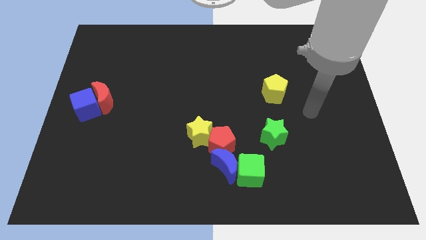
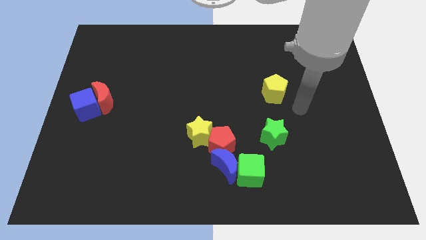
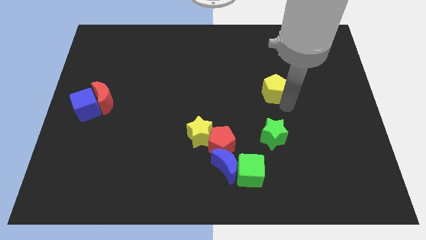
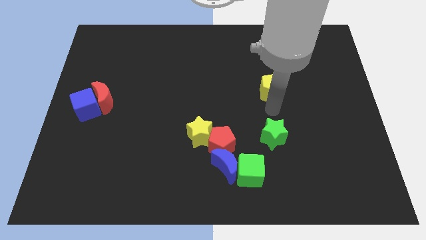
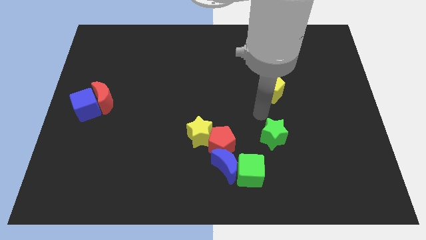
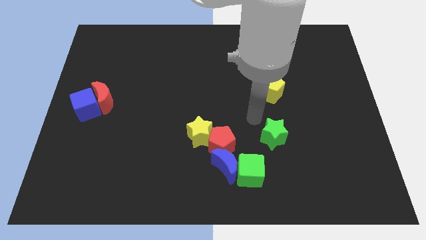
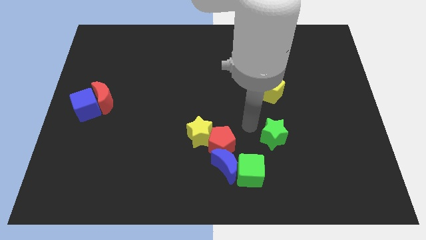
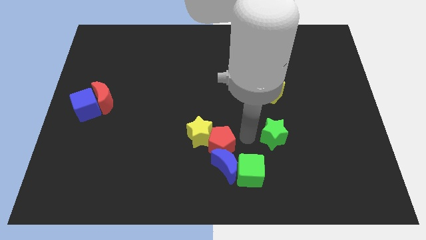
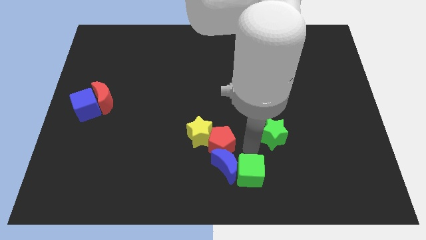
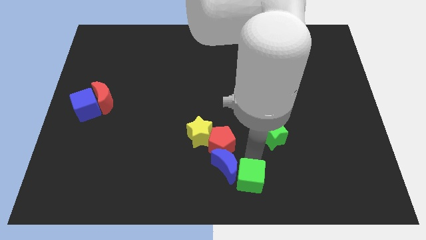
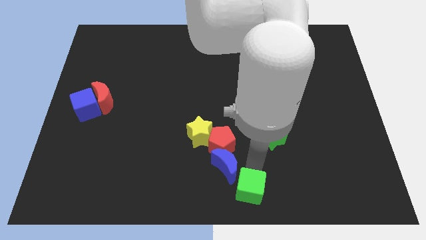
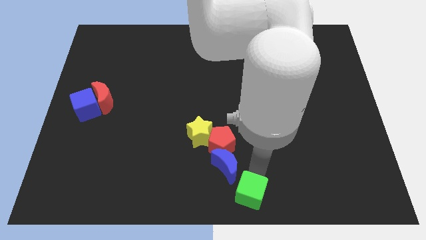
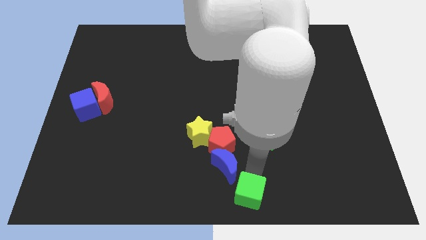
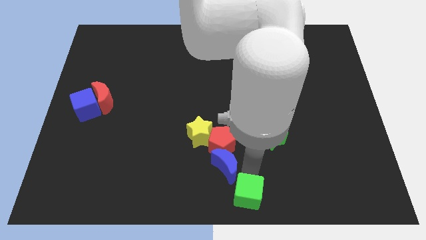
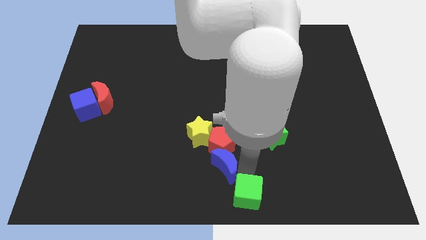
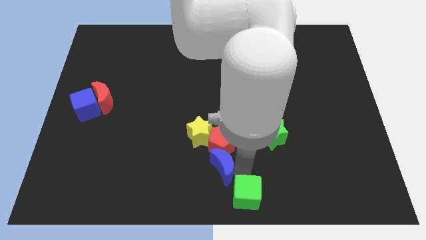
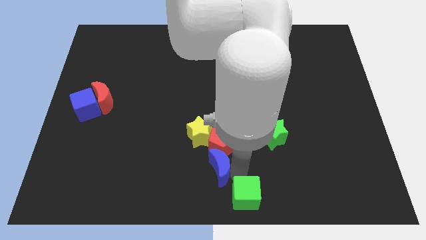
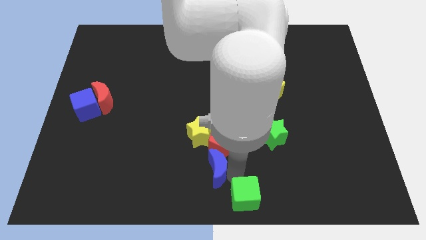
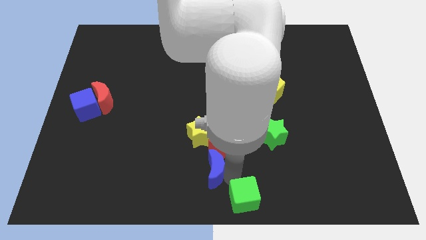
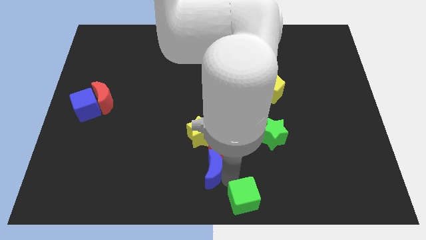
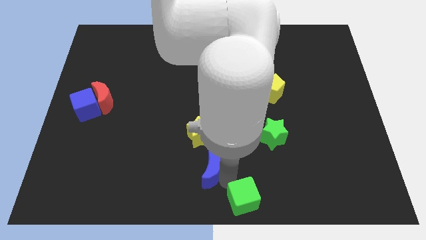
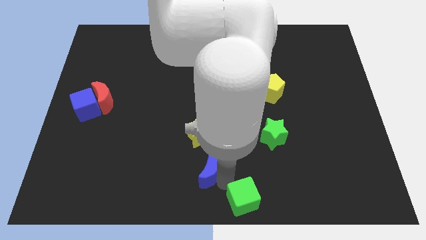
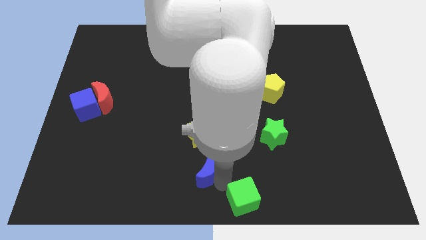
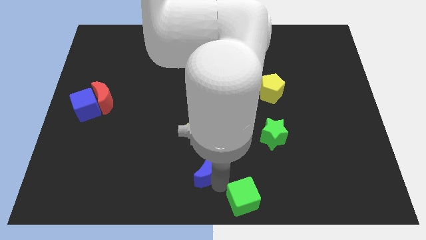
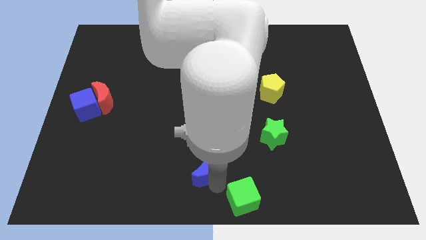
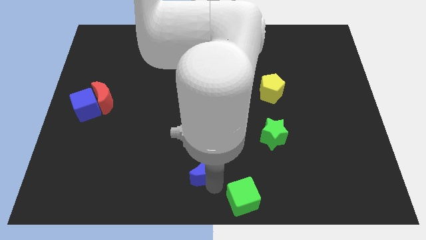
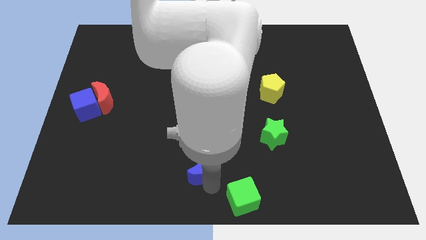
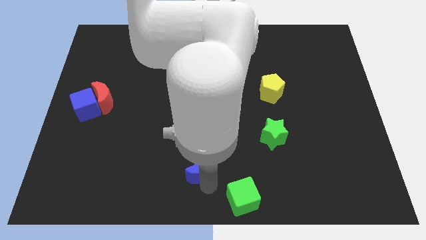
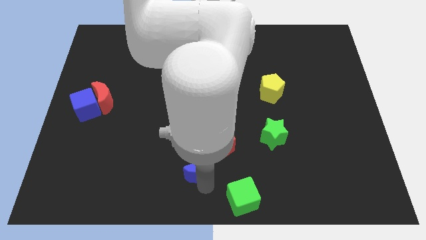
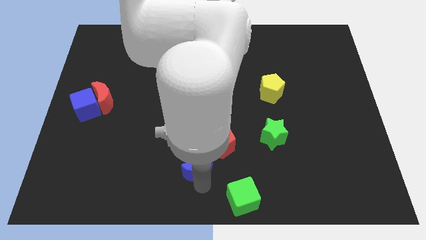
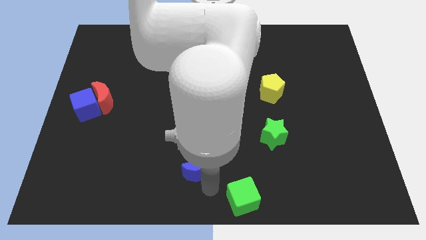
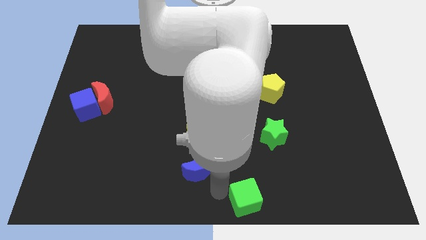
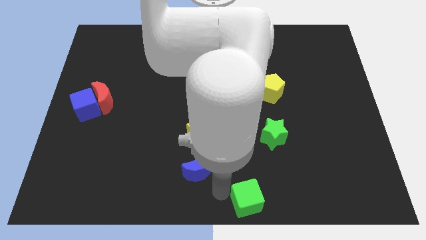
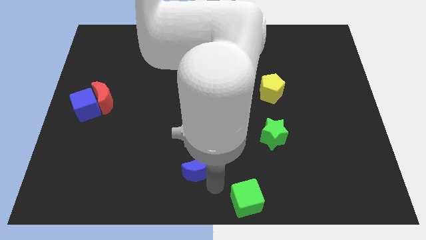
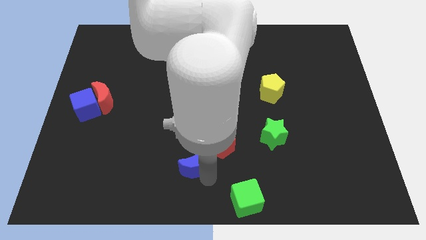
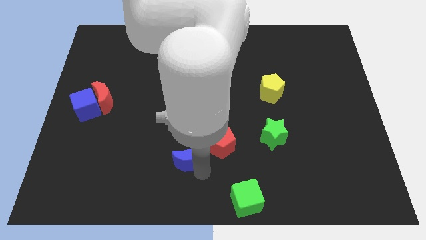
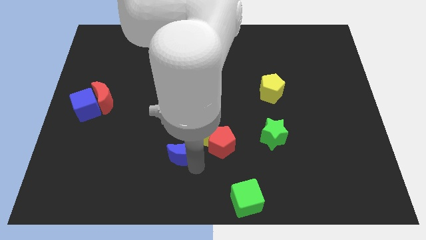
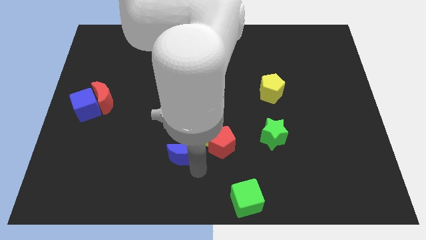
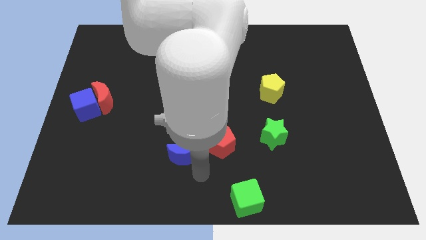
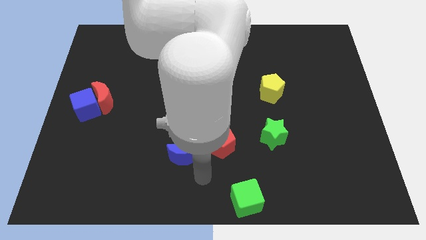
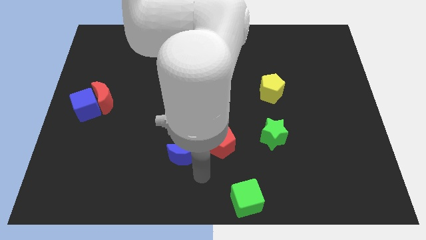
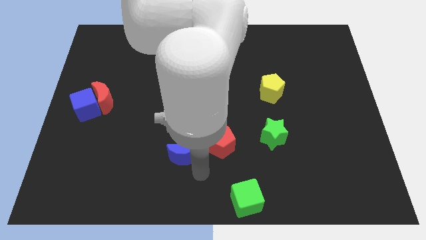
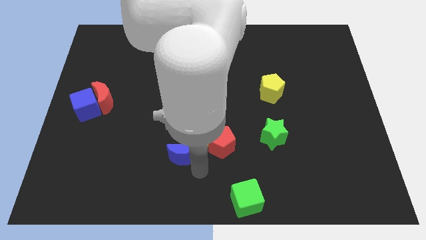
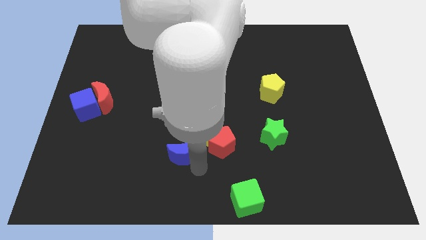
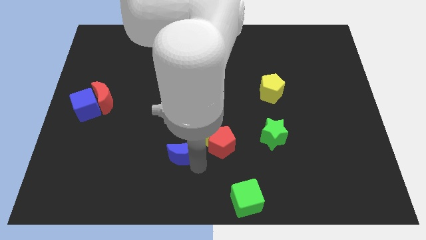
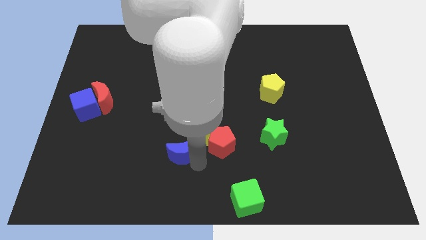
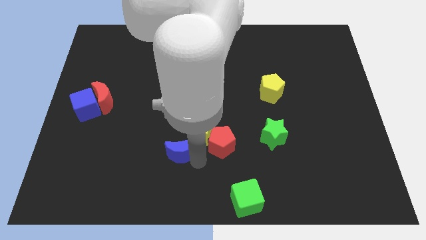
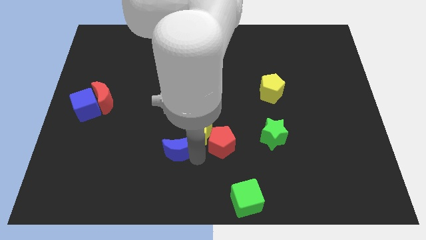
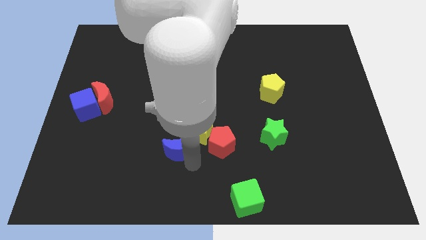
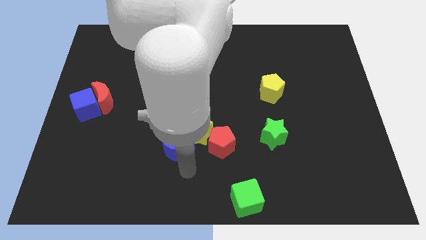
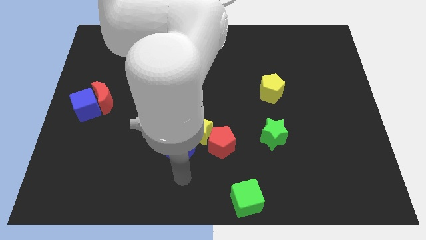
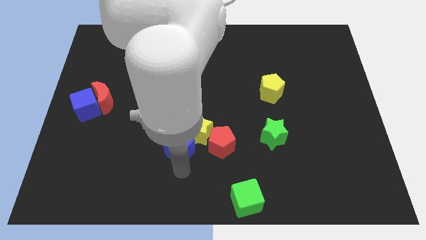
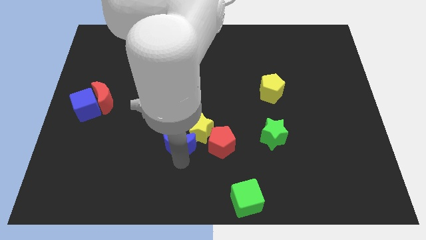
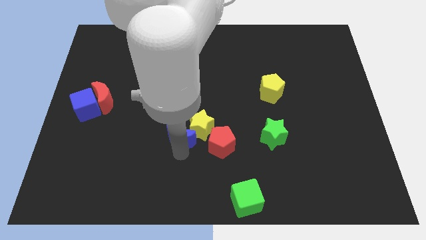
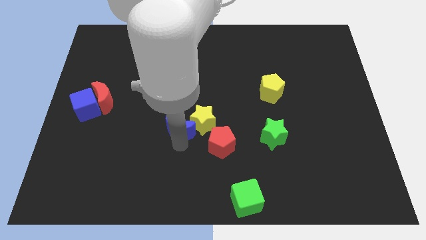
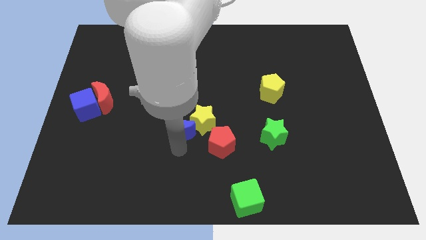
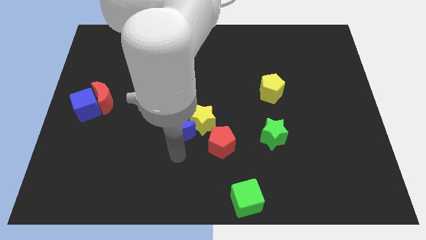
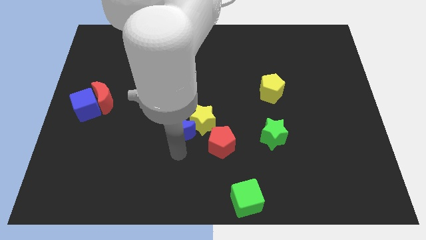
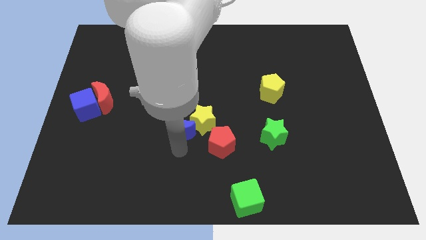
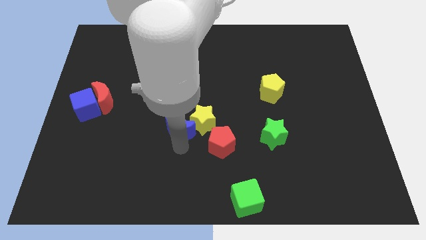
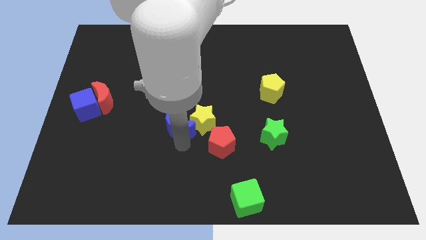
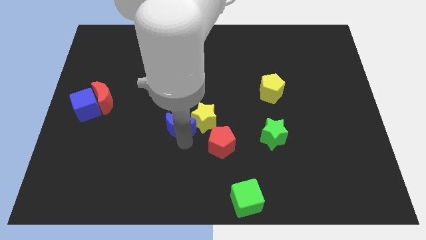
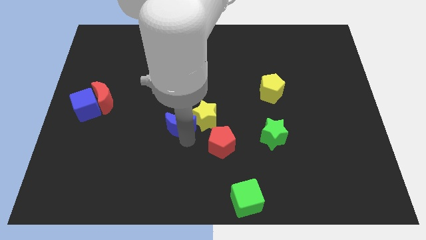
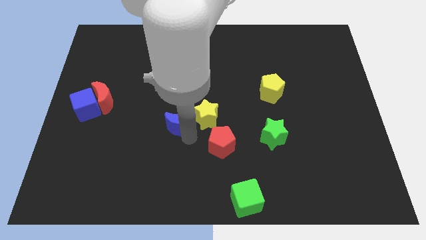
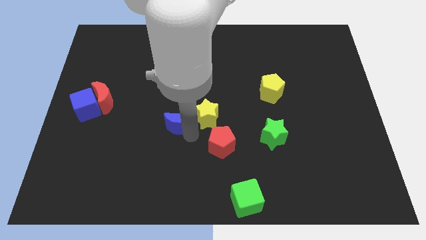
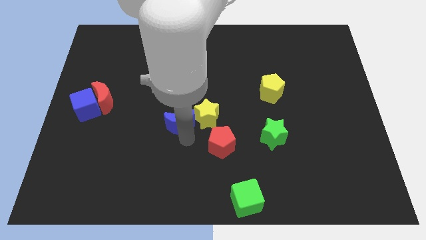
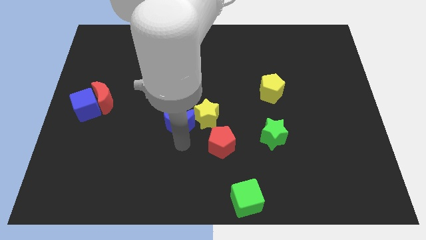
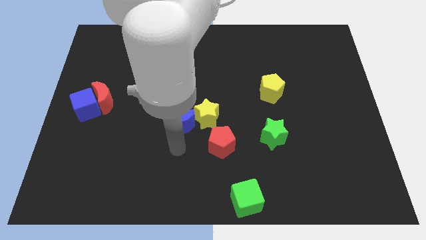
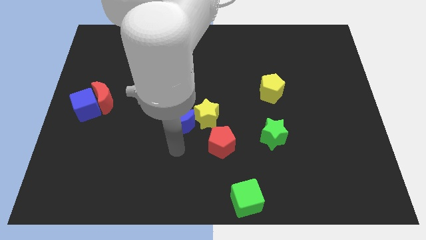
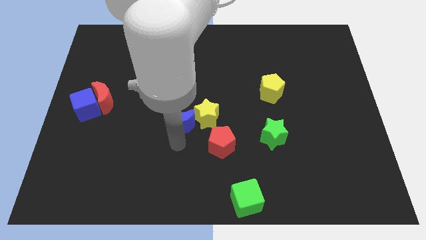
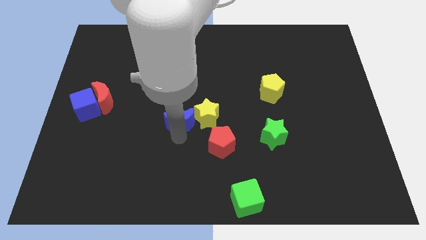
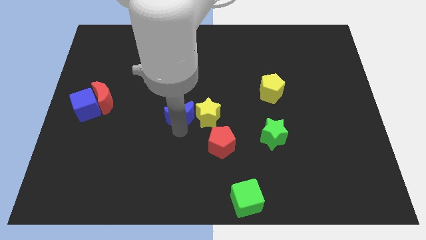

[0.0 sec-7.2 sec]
put the blue moon to the top left of the yellow star
